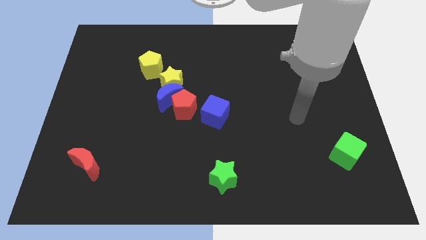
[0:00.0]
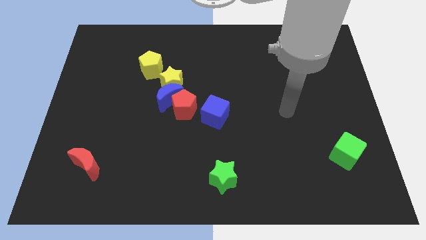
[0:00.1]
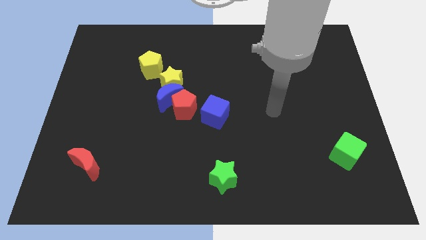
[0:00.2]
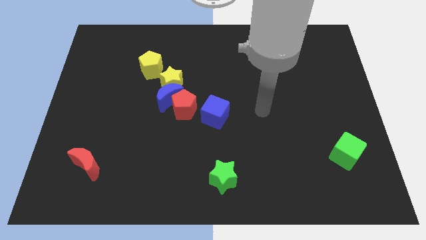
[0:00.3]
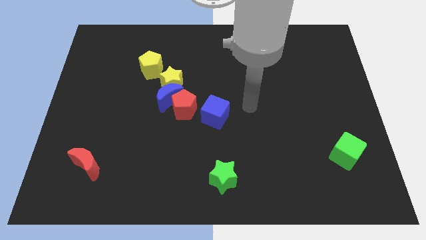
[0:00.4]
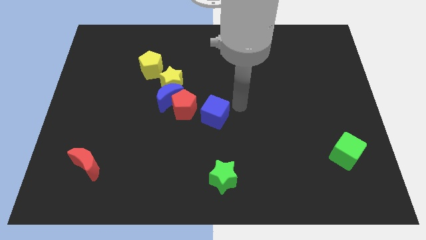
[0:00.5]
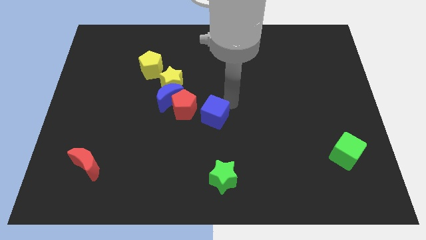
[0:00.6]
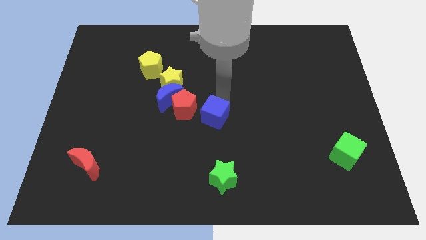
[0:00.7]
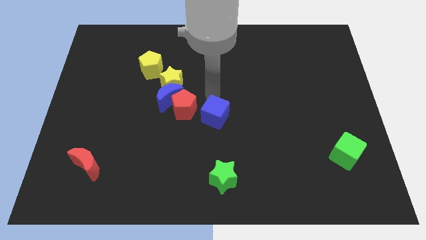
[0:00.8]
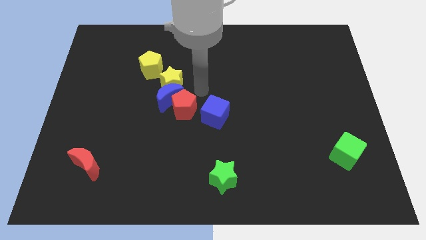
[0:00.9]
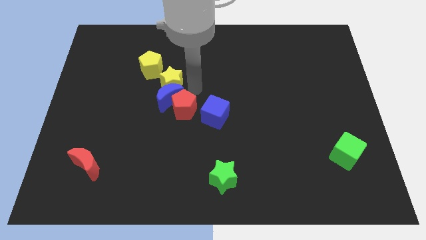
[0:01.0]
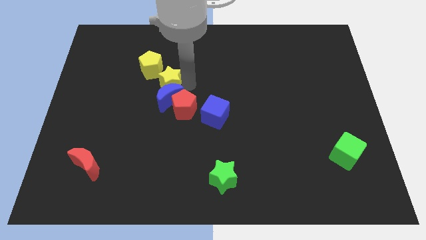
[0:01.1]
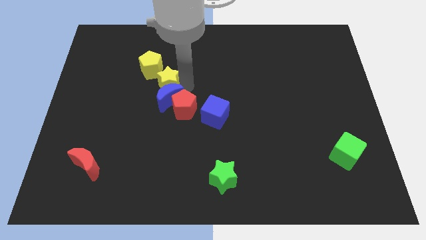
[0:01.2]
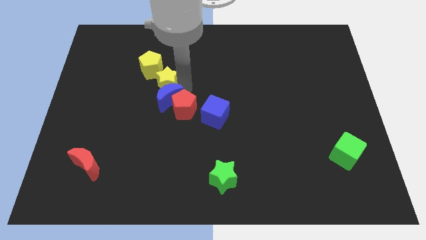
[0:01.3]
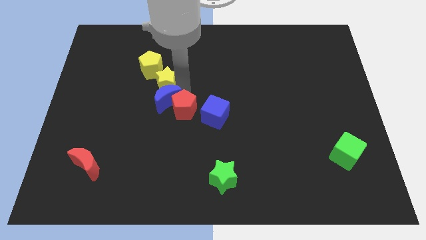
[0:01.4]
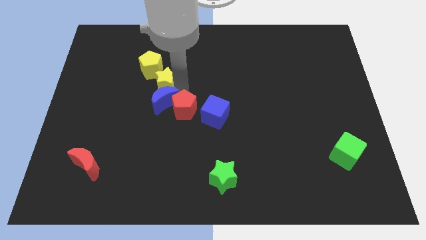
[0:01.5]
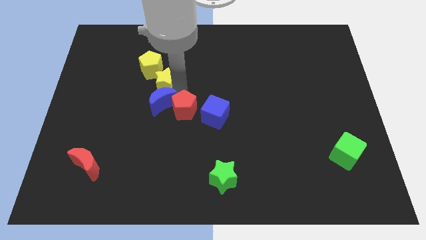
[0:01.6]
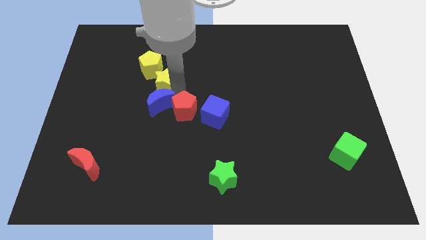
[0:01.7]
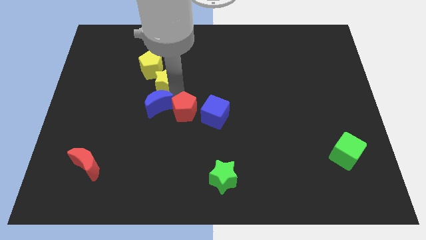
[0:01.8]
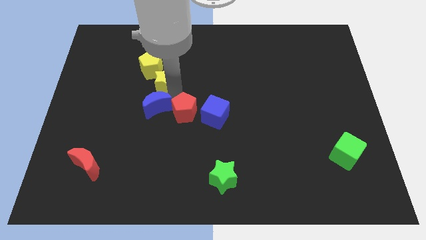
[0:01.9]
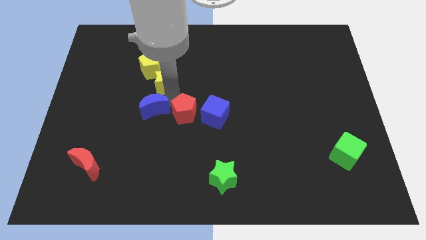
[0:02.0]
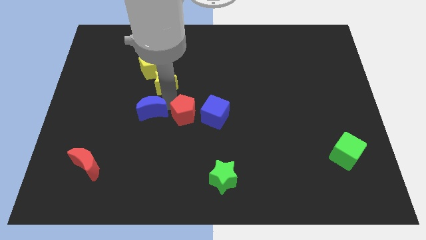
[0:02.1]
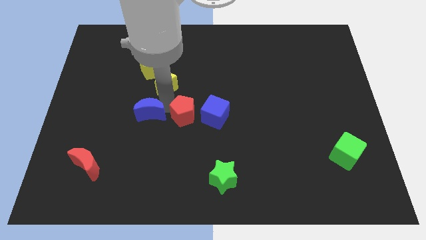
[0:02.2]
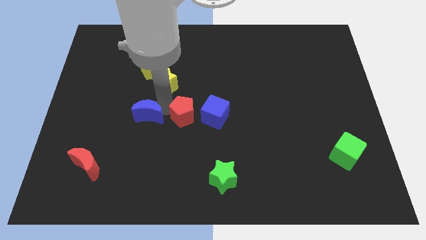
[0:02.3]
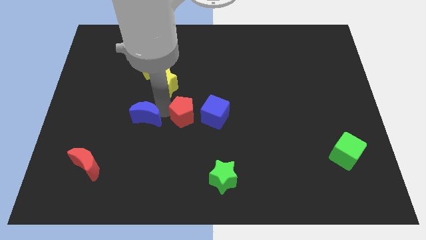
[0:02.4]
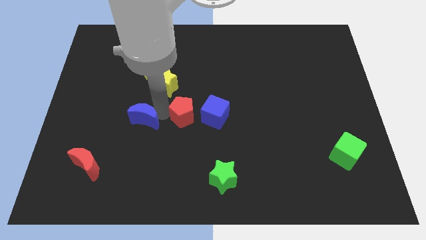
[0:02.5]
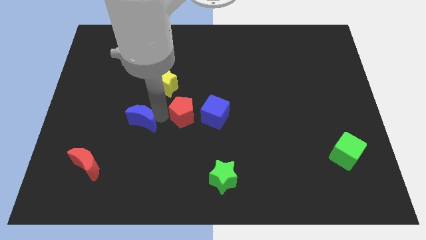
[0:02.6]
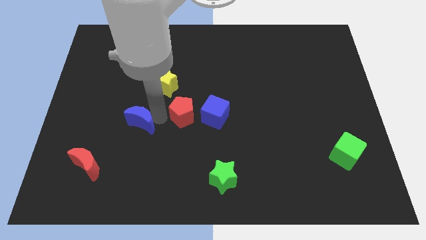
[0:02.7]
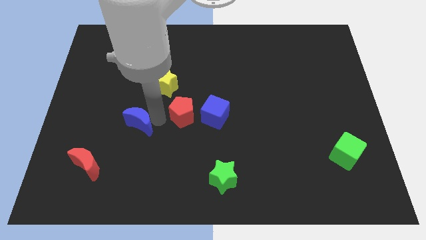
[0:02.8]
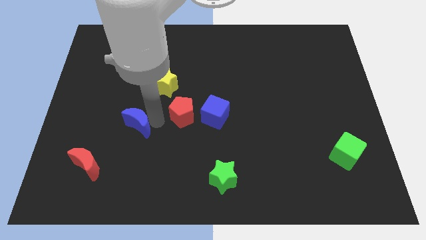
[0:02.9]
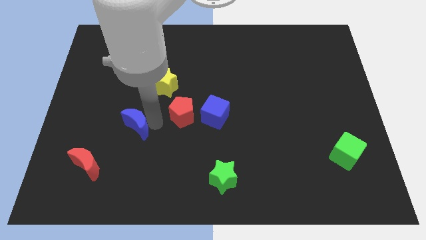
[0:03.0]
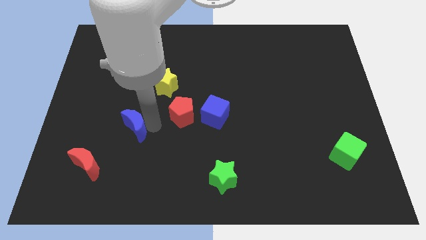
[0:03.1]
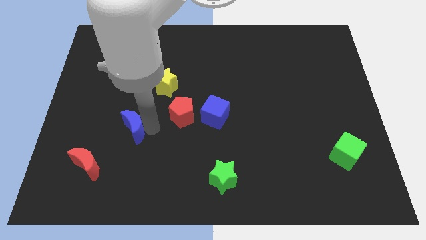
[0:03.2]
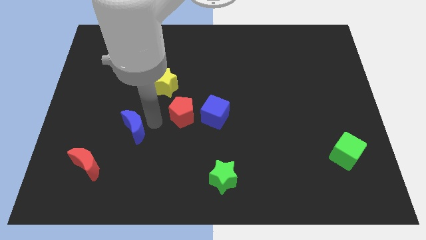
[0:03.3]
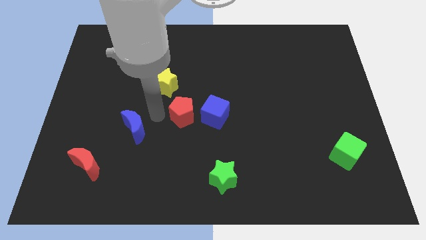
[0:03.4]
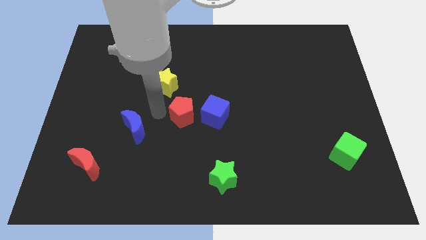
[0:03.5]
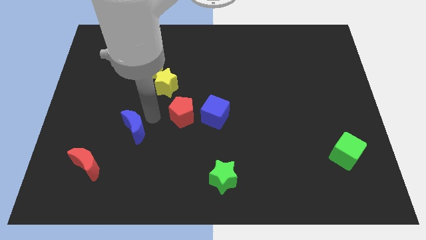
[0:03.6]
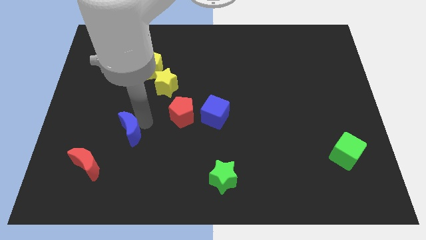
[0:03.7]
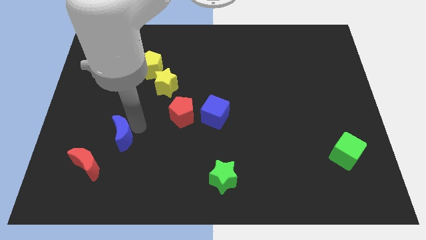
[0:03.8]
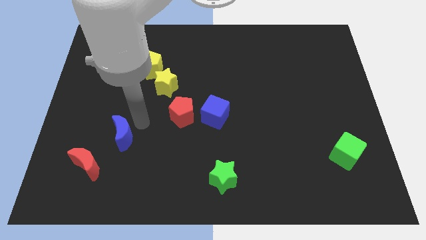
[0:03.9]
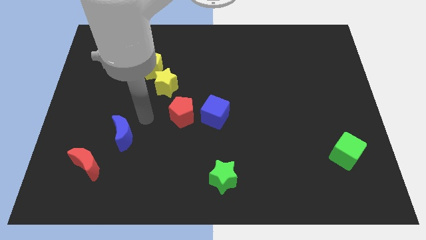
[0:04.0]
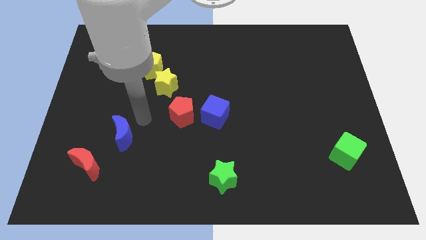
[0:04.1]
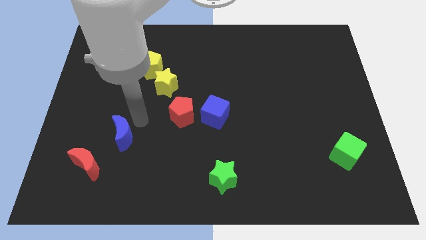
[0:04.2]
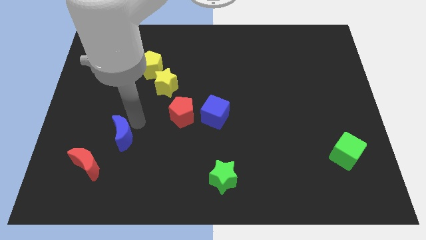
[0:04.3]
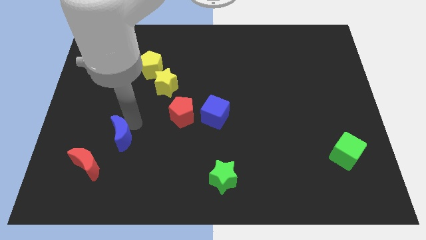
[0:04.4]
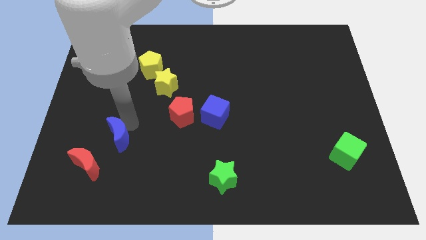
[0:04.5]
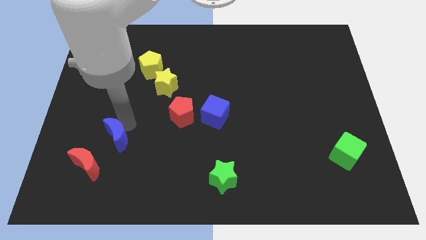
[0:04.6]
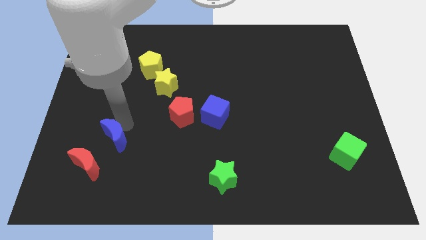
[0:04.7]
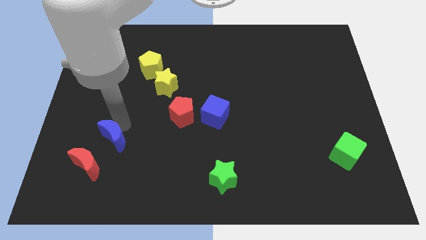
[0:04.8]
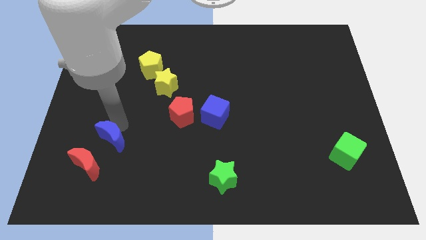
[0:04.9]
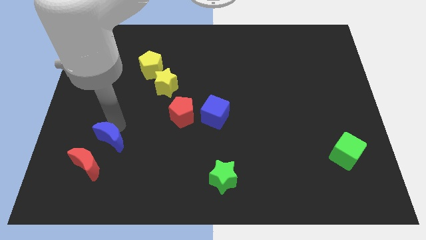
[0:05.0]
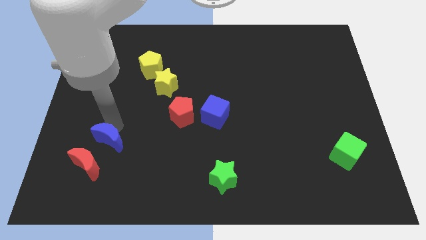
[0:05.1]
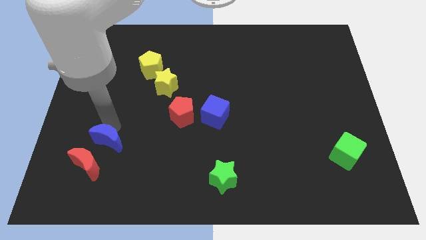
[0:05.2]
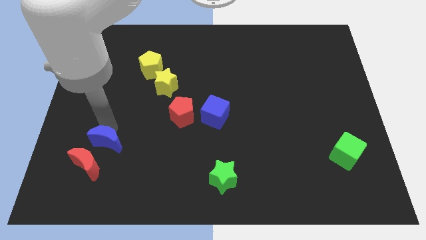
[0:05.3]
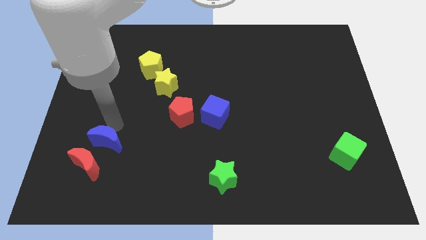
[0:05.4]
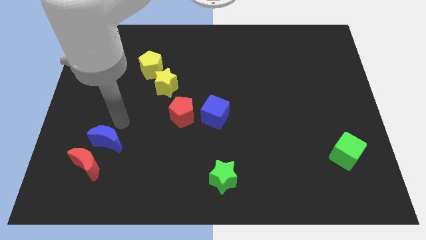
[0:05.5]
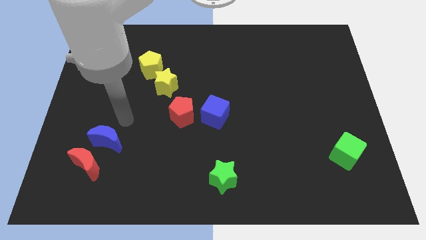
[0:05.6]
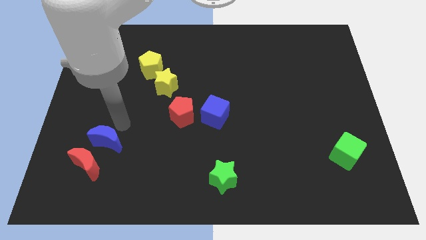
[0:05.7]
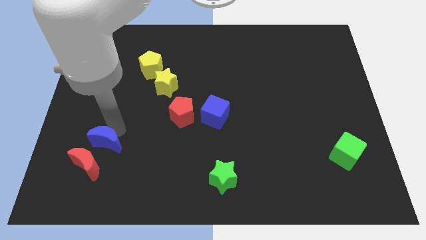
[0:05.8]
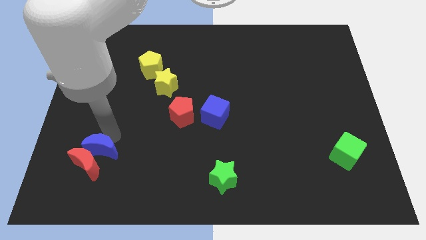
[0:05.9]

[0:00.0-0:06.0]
slide the blue moon close to the red moon

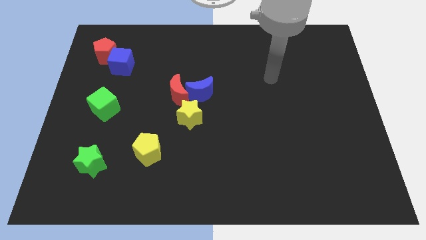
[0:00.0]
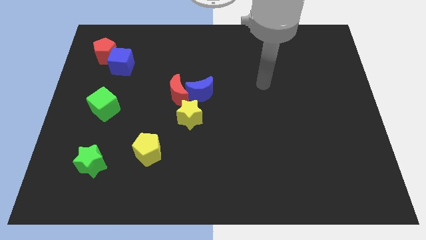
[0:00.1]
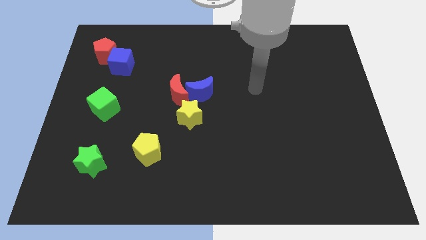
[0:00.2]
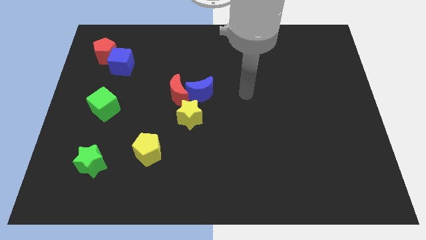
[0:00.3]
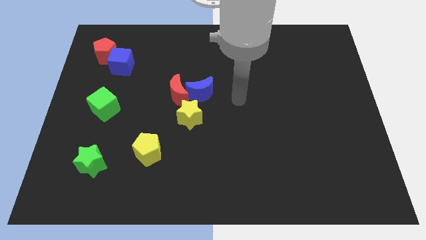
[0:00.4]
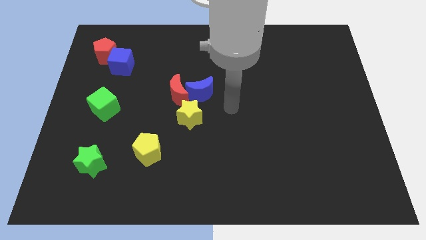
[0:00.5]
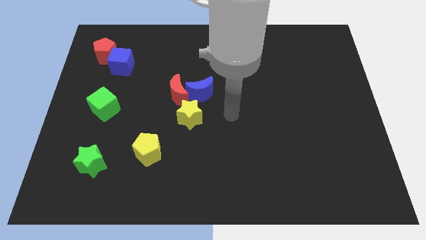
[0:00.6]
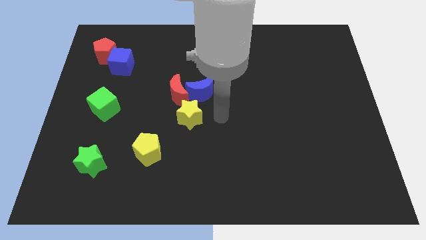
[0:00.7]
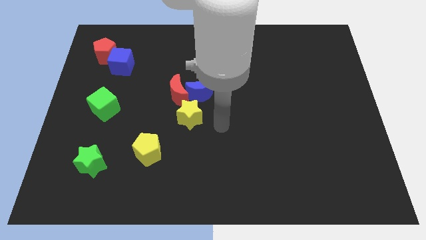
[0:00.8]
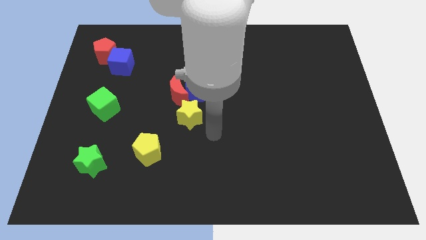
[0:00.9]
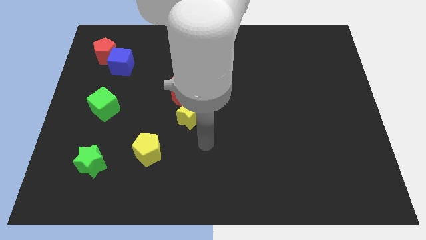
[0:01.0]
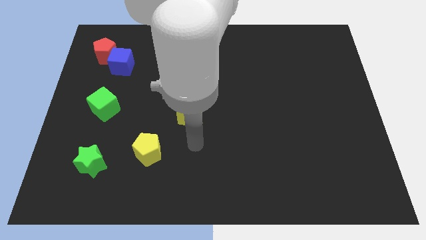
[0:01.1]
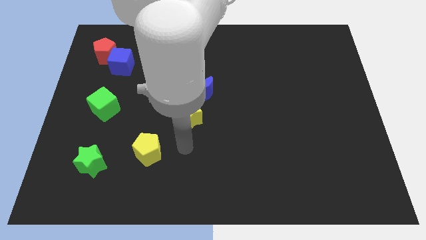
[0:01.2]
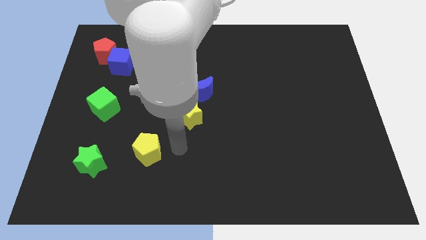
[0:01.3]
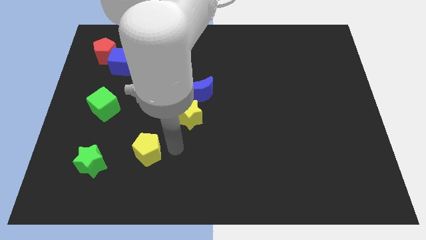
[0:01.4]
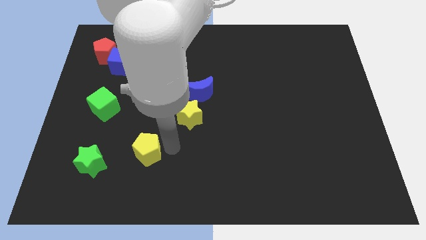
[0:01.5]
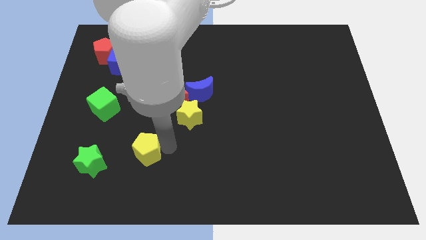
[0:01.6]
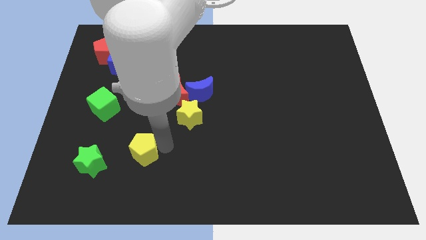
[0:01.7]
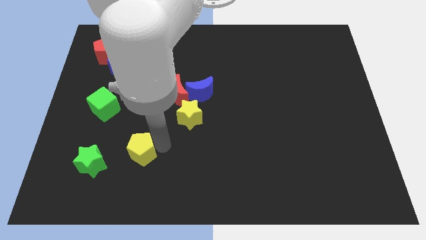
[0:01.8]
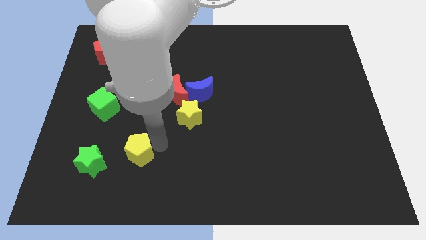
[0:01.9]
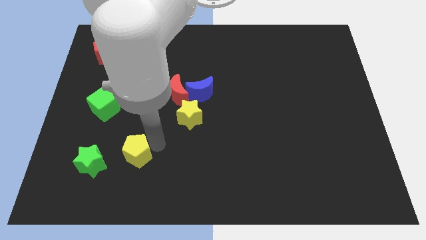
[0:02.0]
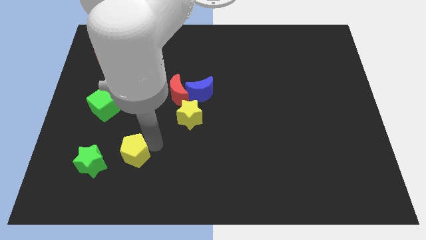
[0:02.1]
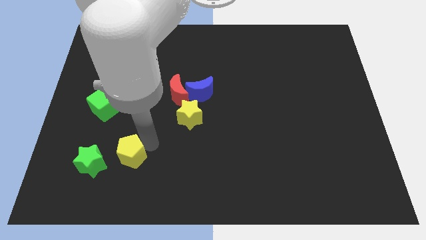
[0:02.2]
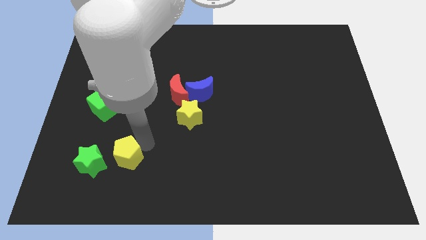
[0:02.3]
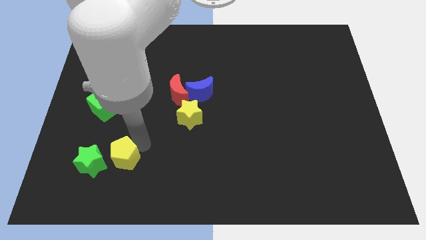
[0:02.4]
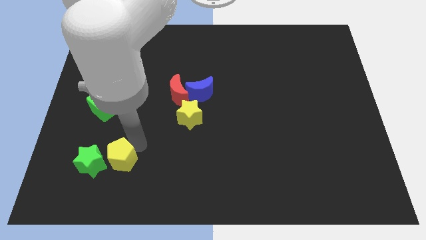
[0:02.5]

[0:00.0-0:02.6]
put the yellow pentagon to the green star
